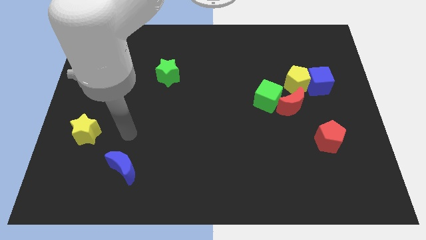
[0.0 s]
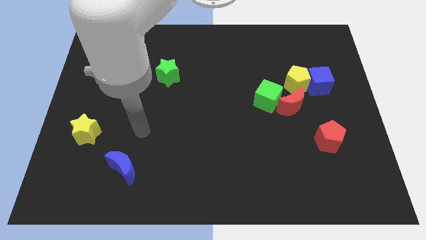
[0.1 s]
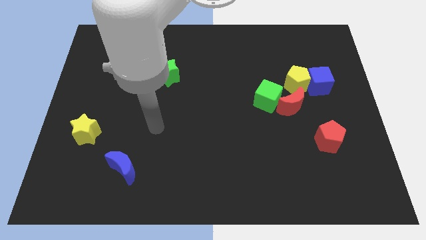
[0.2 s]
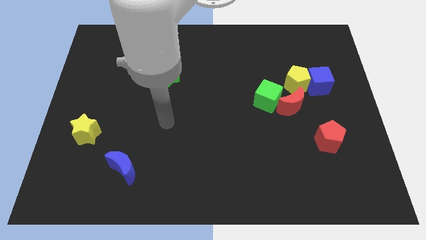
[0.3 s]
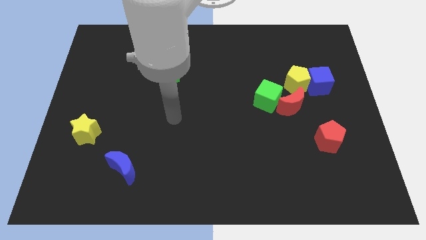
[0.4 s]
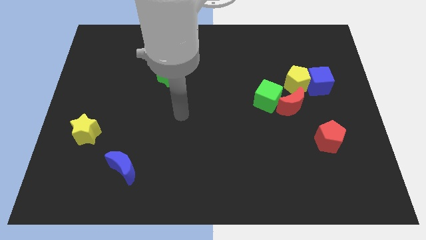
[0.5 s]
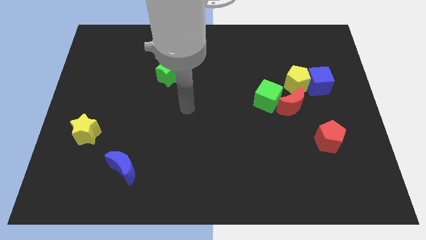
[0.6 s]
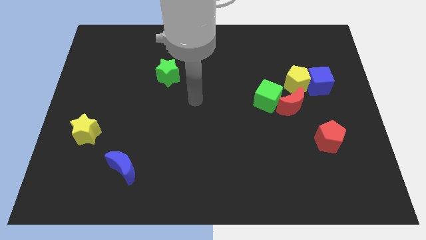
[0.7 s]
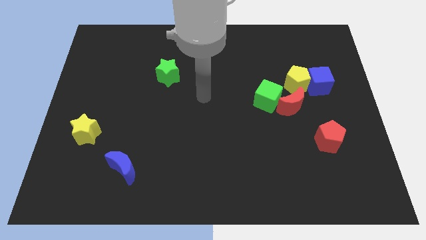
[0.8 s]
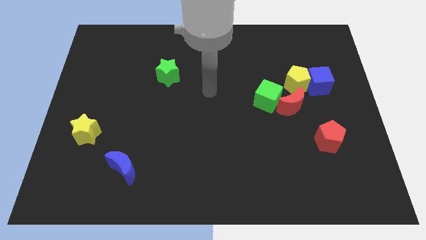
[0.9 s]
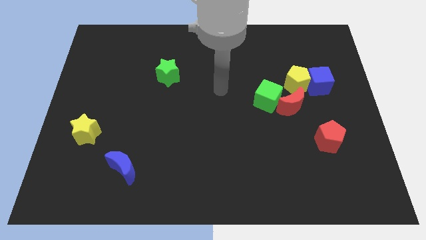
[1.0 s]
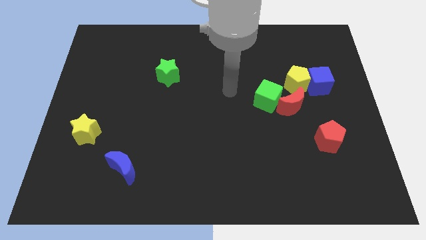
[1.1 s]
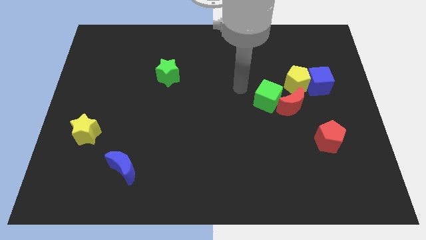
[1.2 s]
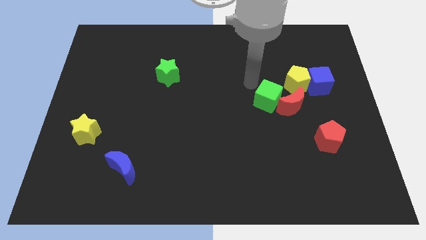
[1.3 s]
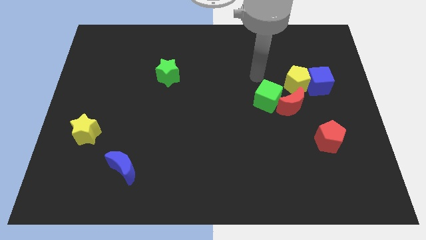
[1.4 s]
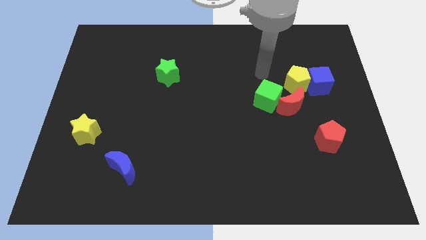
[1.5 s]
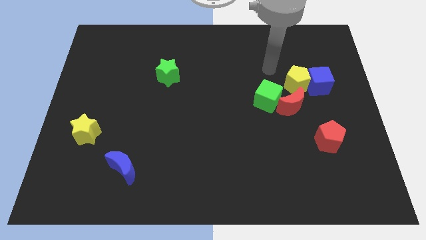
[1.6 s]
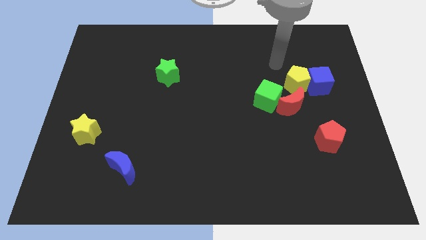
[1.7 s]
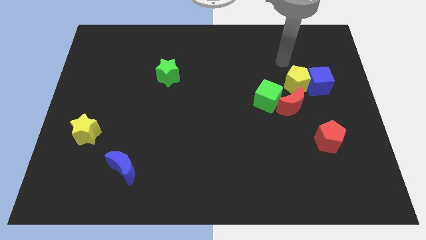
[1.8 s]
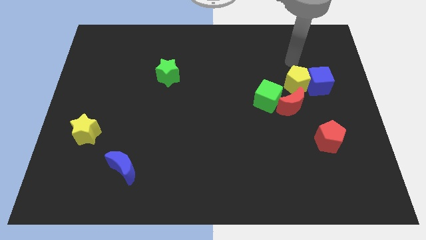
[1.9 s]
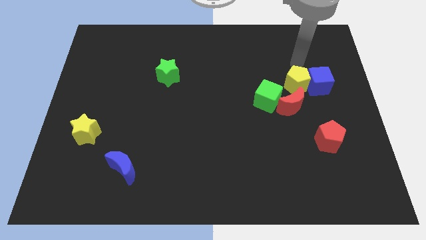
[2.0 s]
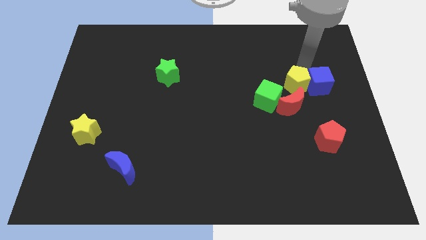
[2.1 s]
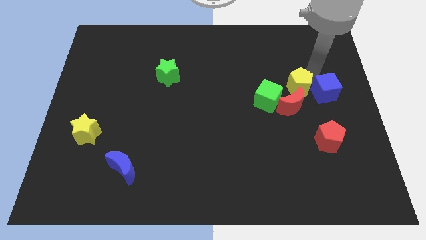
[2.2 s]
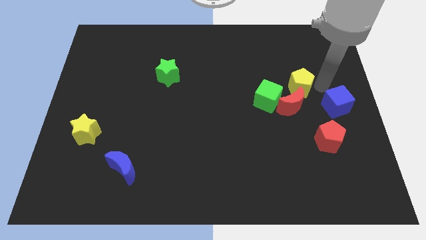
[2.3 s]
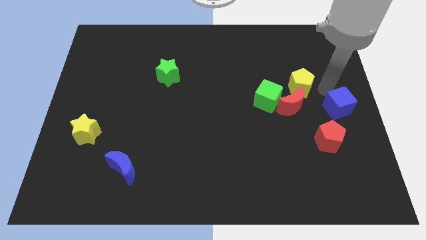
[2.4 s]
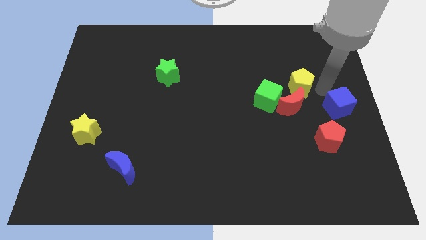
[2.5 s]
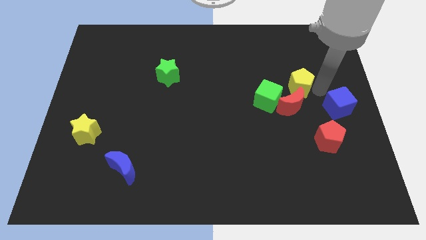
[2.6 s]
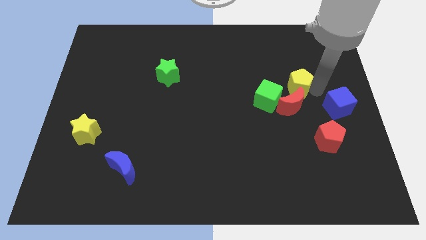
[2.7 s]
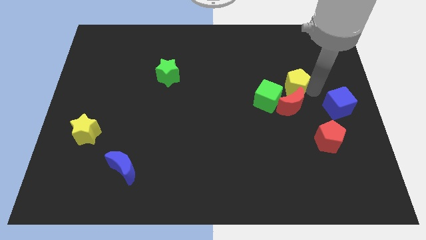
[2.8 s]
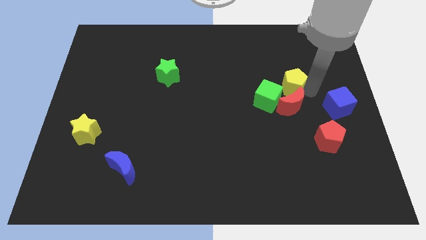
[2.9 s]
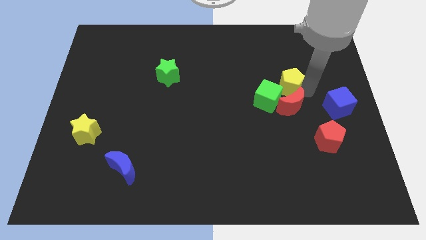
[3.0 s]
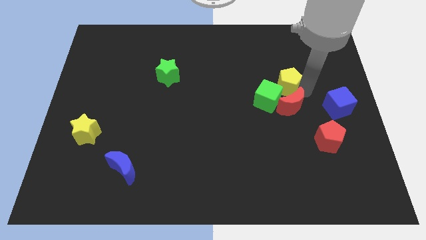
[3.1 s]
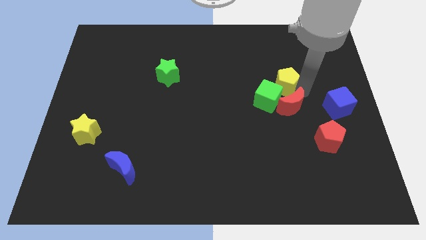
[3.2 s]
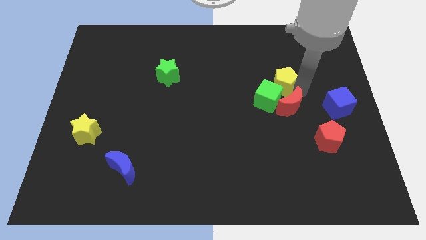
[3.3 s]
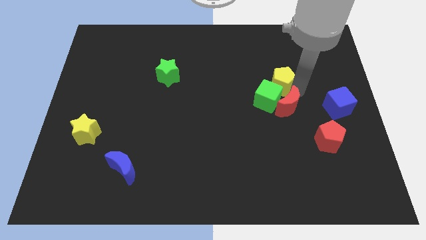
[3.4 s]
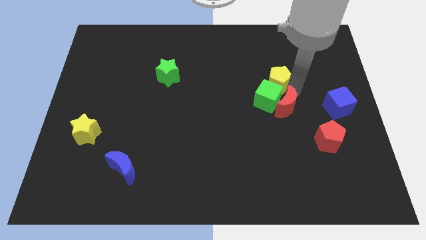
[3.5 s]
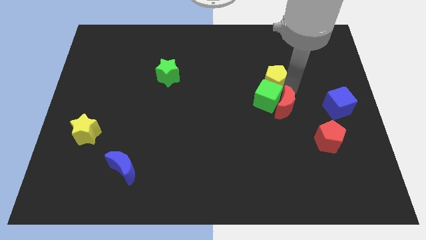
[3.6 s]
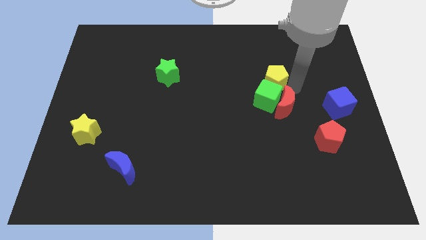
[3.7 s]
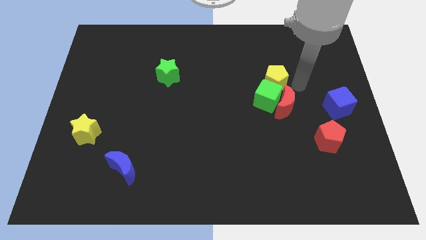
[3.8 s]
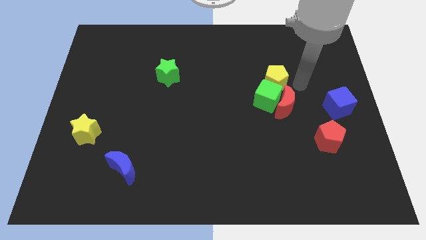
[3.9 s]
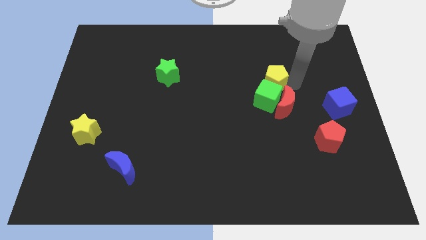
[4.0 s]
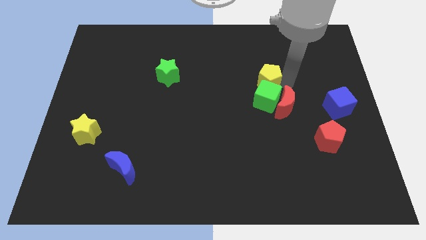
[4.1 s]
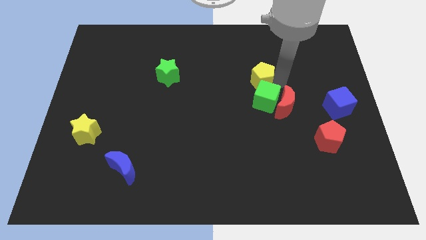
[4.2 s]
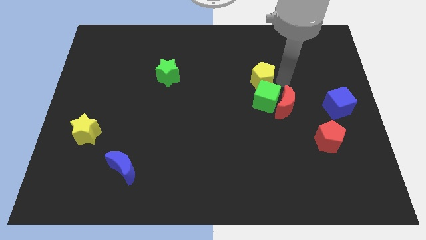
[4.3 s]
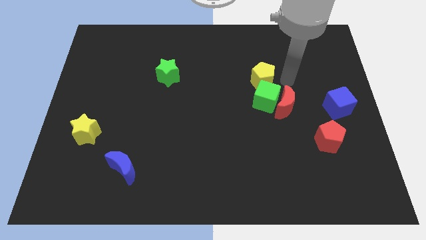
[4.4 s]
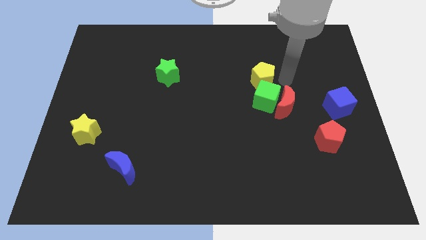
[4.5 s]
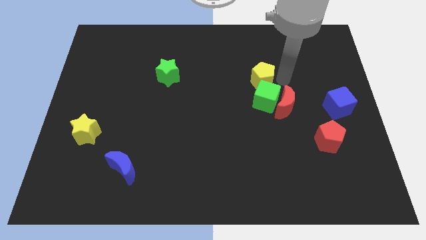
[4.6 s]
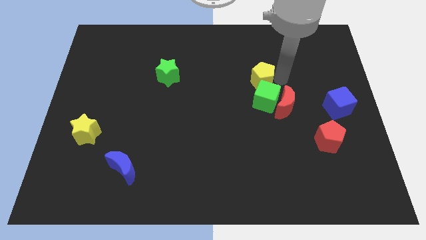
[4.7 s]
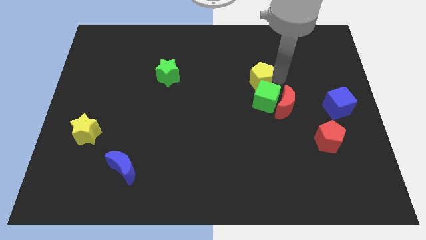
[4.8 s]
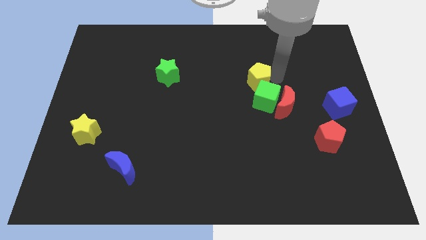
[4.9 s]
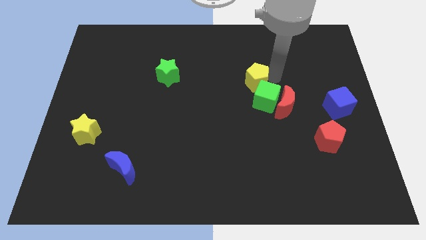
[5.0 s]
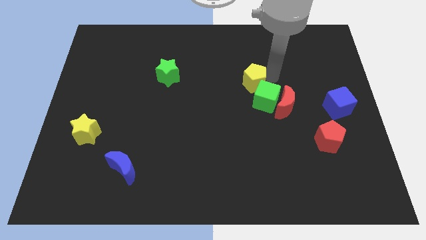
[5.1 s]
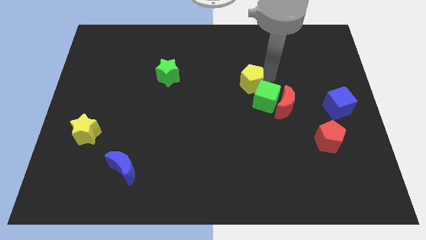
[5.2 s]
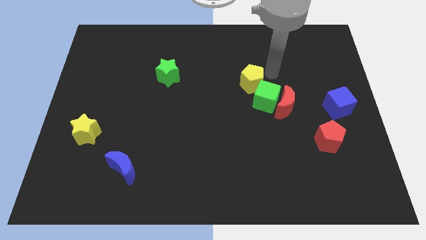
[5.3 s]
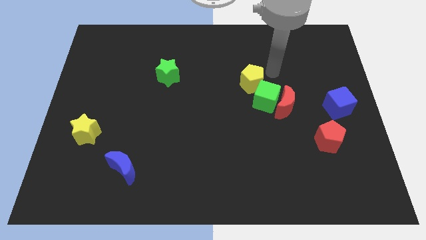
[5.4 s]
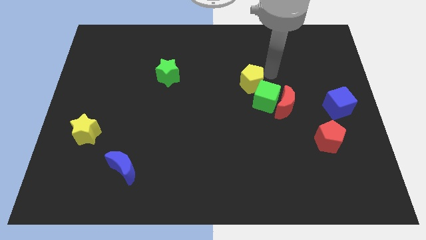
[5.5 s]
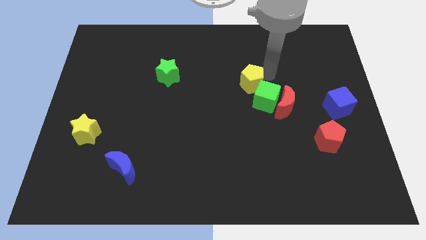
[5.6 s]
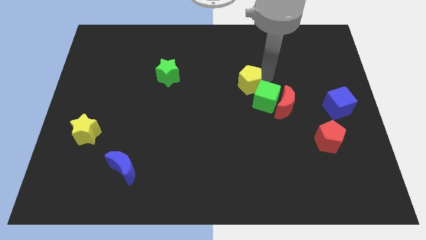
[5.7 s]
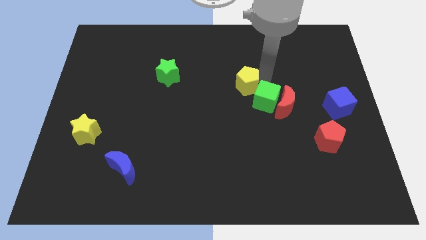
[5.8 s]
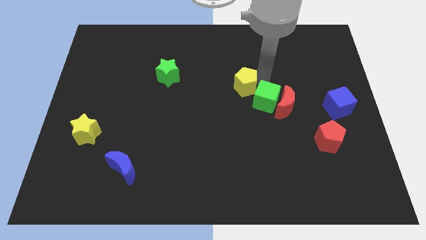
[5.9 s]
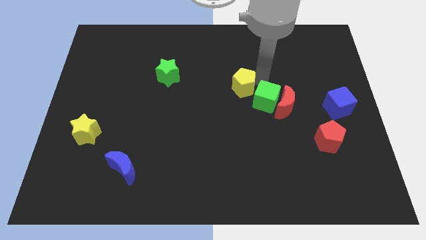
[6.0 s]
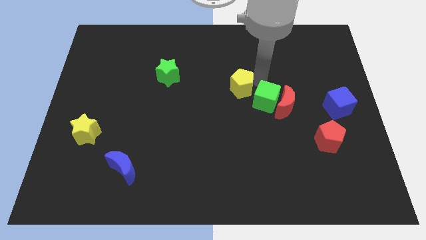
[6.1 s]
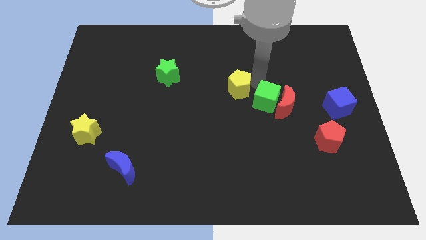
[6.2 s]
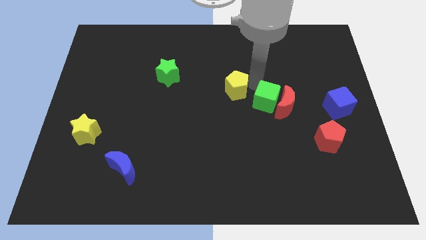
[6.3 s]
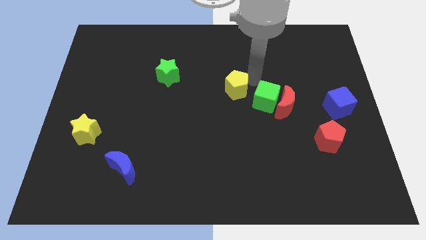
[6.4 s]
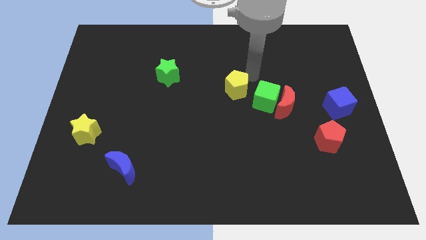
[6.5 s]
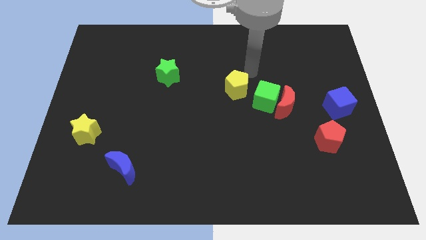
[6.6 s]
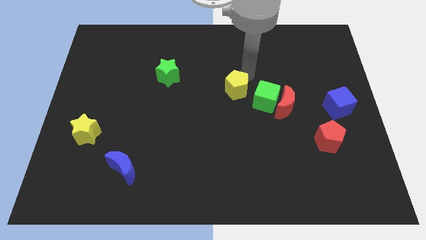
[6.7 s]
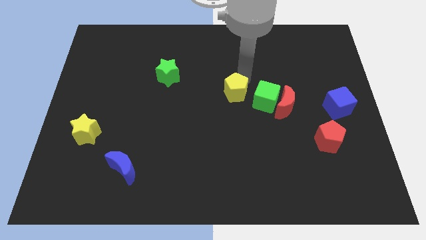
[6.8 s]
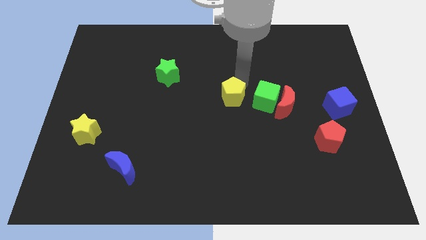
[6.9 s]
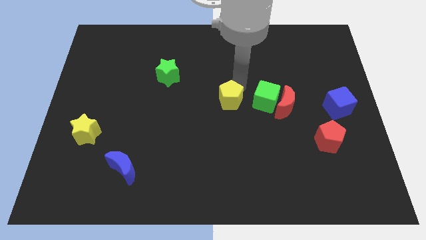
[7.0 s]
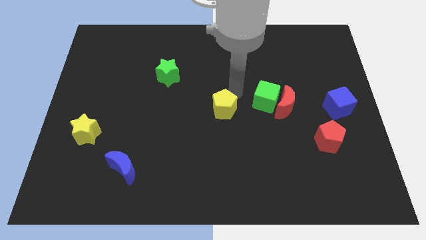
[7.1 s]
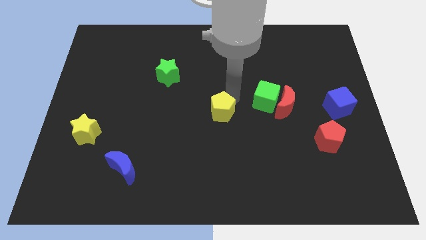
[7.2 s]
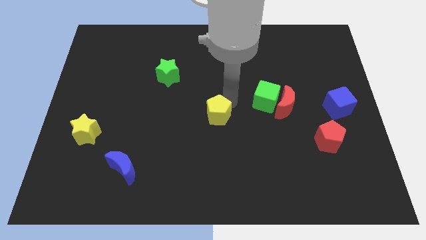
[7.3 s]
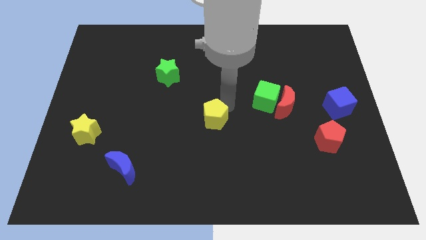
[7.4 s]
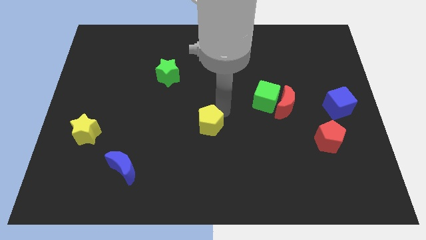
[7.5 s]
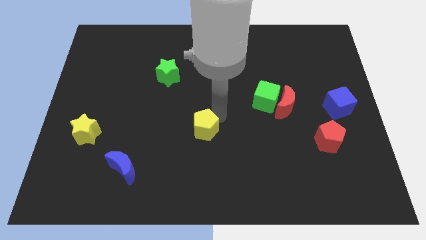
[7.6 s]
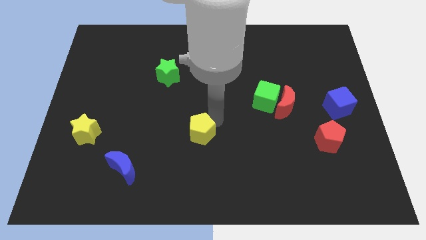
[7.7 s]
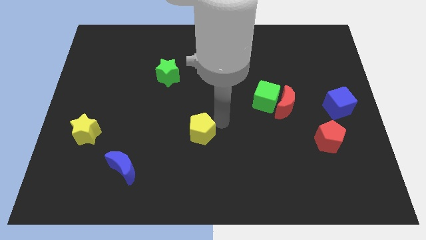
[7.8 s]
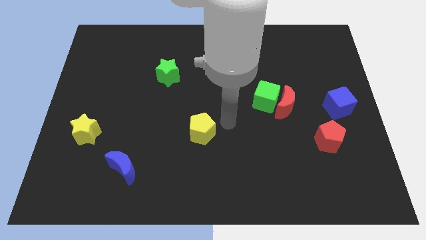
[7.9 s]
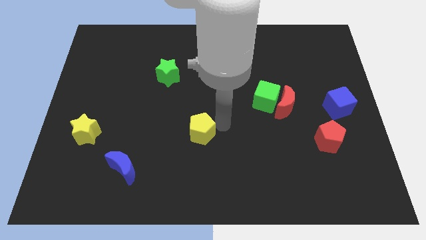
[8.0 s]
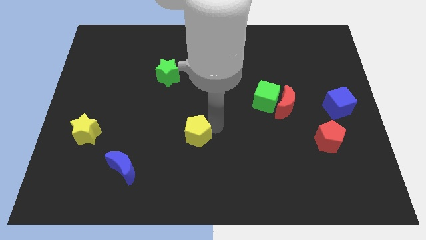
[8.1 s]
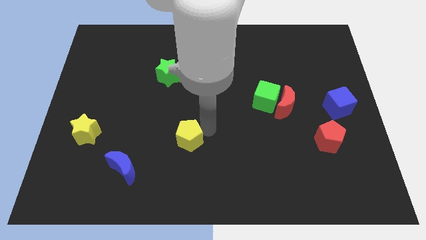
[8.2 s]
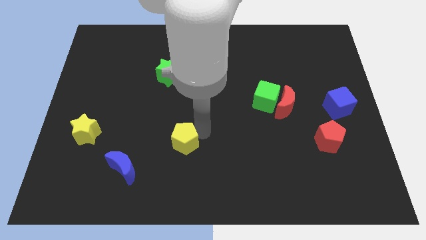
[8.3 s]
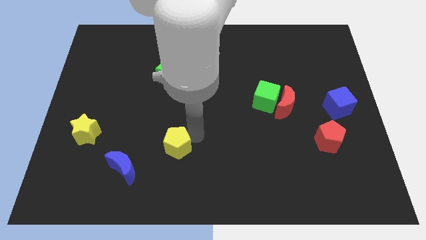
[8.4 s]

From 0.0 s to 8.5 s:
move the yellow pentagon diagonally up and to the right of the blue moon
